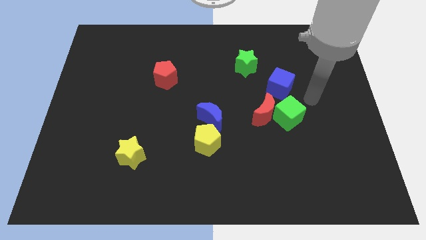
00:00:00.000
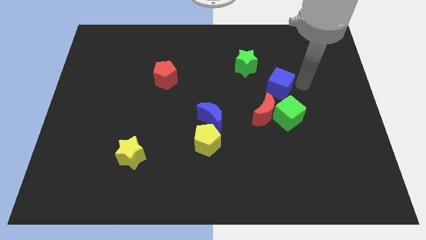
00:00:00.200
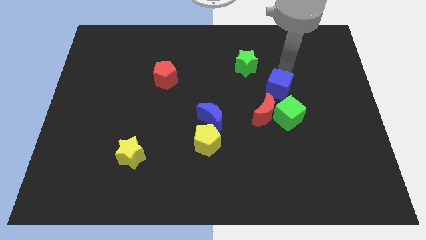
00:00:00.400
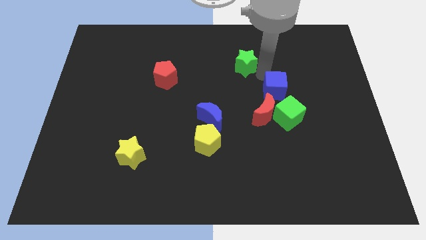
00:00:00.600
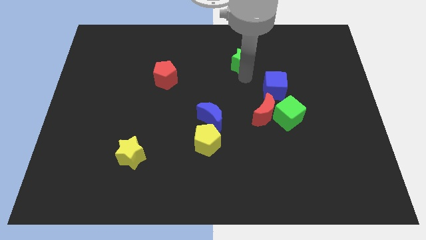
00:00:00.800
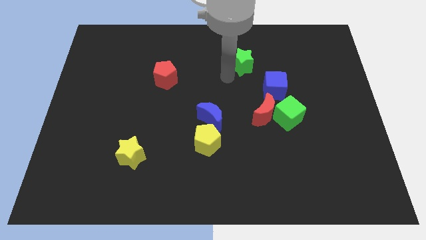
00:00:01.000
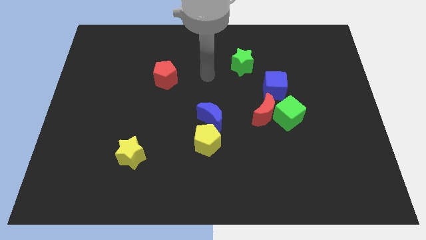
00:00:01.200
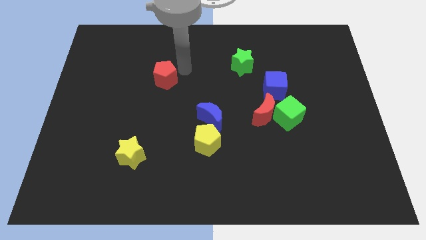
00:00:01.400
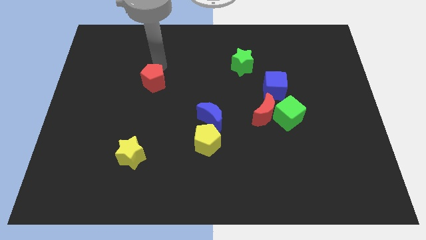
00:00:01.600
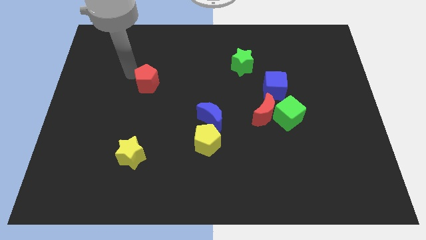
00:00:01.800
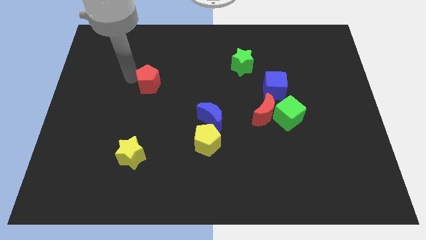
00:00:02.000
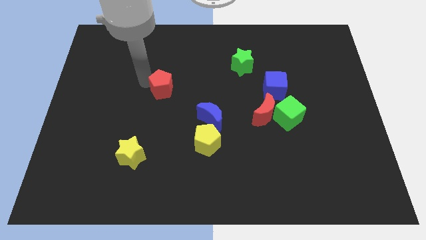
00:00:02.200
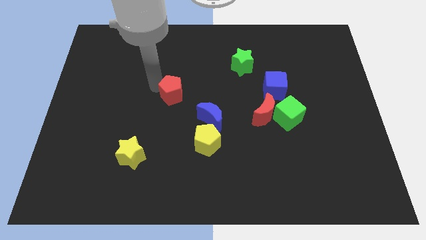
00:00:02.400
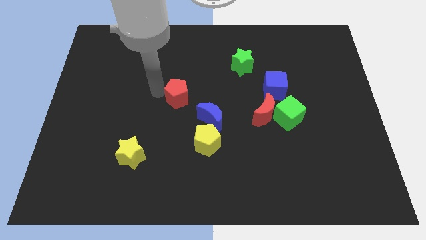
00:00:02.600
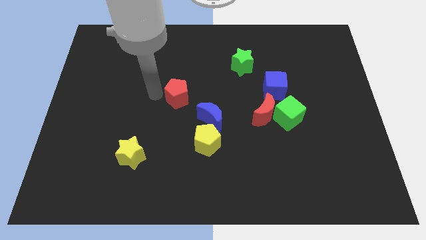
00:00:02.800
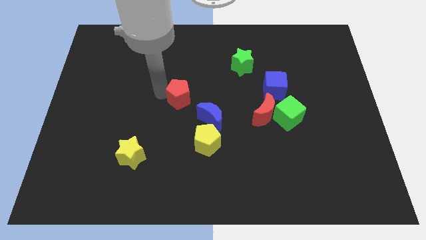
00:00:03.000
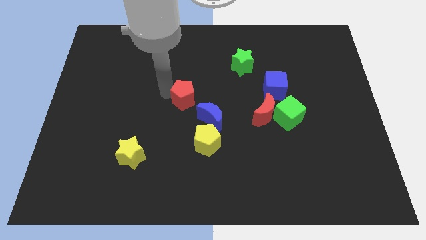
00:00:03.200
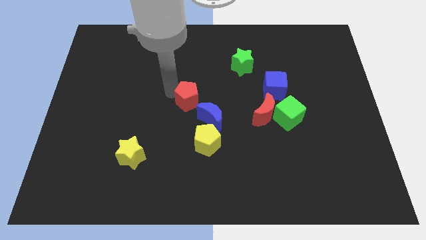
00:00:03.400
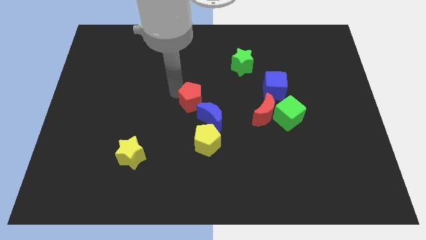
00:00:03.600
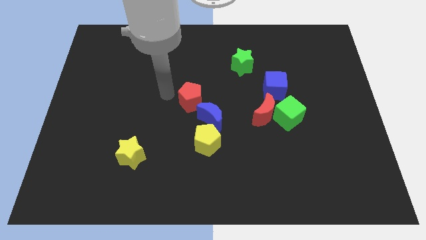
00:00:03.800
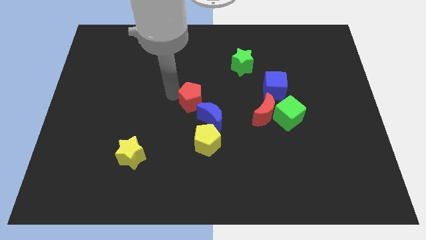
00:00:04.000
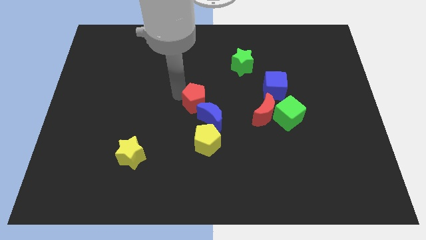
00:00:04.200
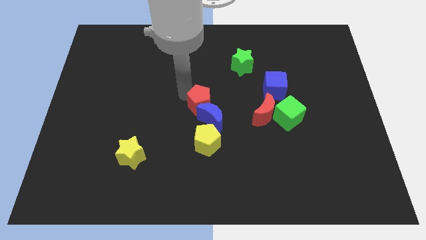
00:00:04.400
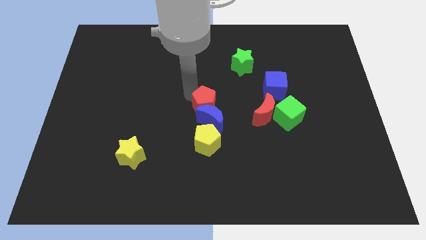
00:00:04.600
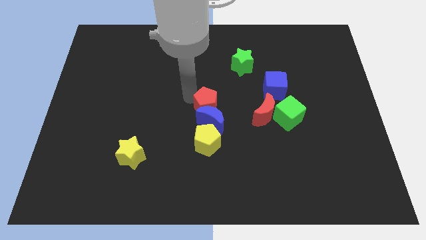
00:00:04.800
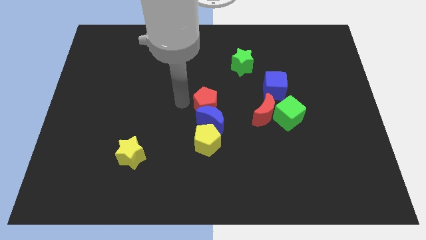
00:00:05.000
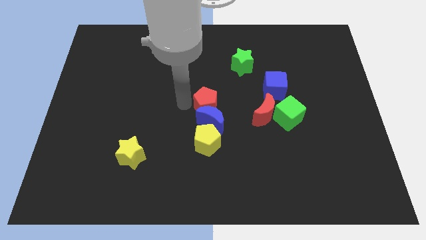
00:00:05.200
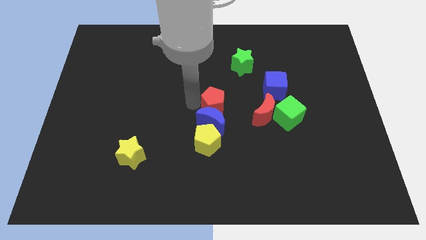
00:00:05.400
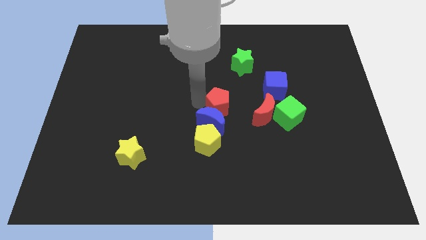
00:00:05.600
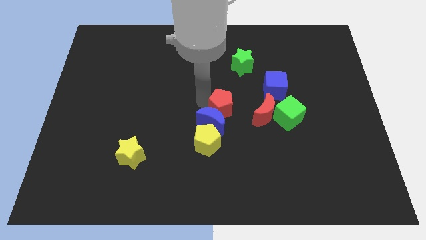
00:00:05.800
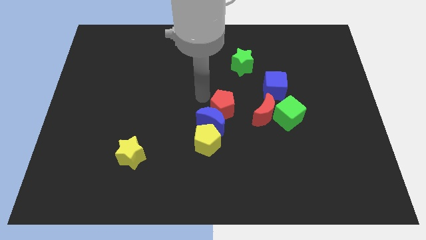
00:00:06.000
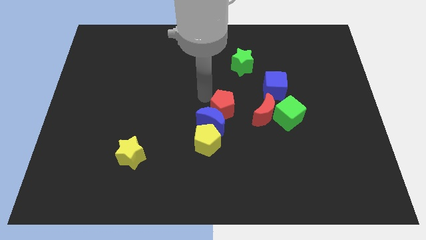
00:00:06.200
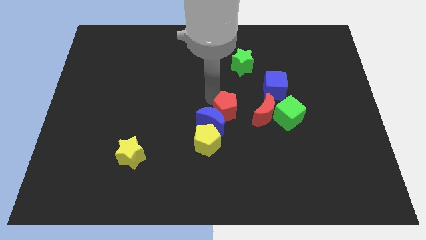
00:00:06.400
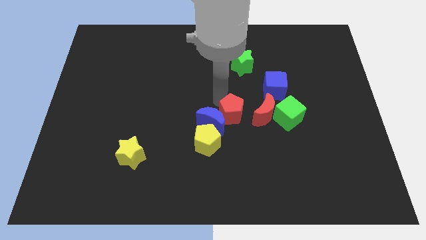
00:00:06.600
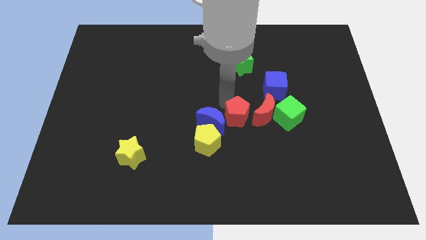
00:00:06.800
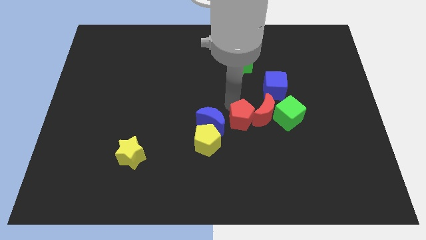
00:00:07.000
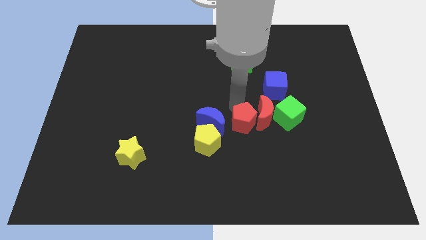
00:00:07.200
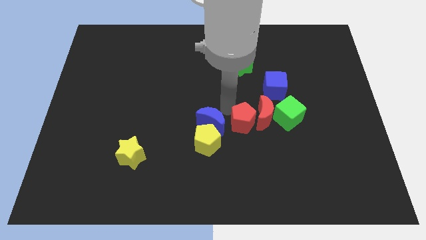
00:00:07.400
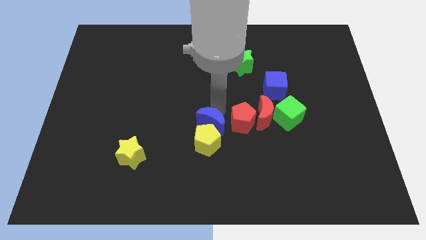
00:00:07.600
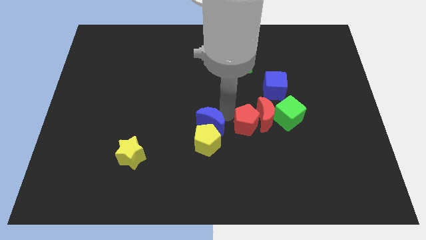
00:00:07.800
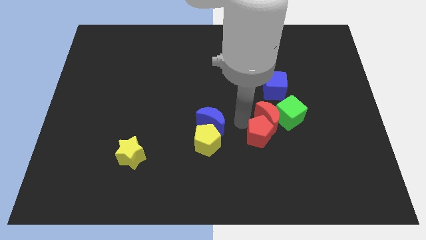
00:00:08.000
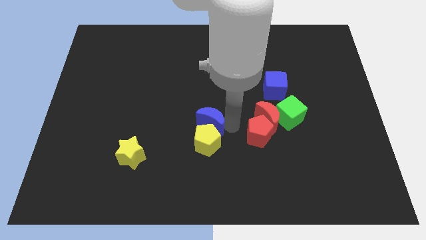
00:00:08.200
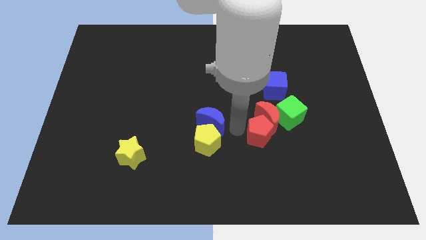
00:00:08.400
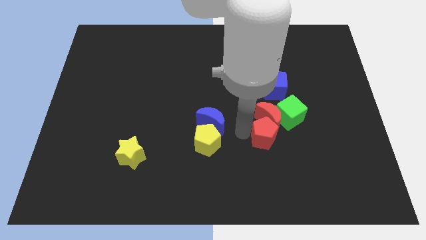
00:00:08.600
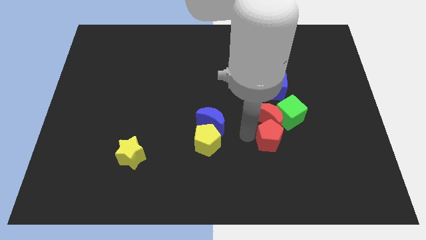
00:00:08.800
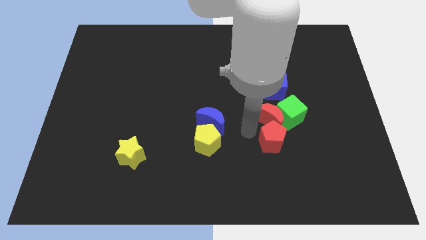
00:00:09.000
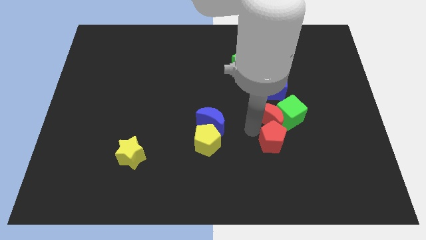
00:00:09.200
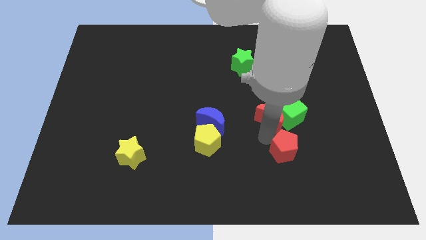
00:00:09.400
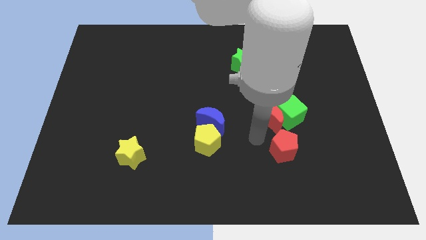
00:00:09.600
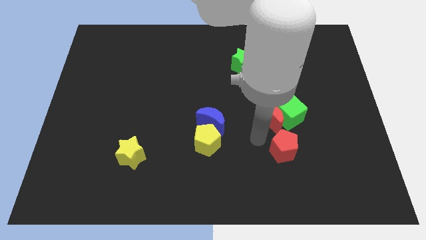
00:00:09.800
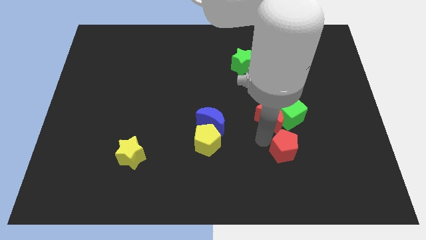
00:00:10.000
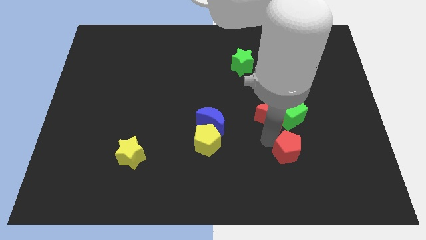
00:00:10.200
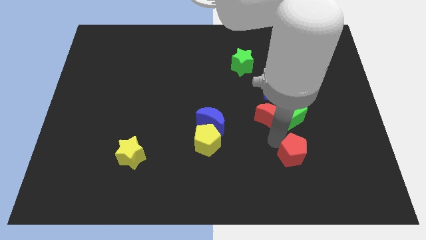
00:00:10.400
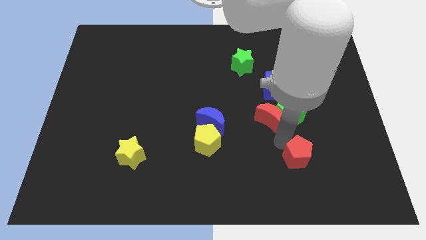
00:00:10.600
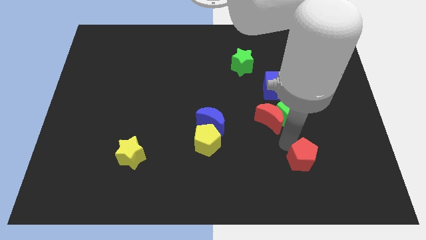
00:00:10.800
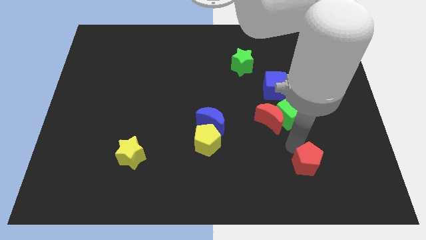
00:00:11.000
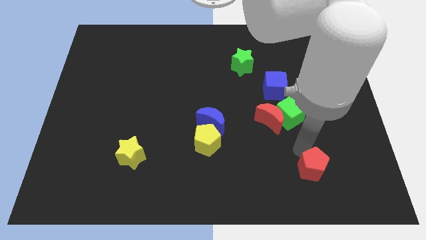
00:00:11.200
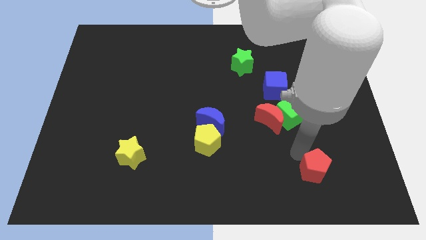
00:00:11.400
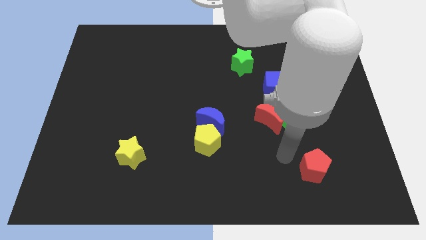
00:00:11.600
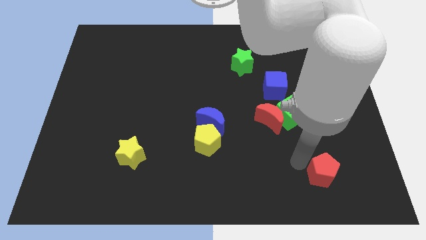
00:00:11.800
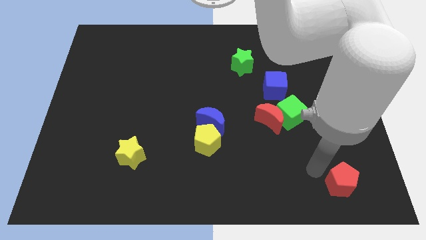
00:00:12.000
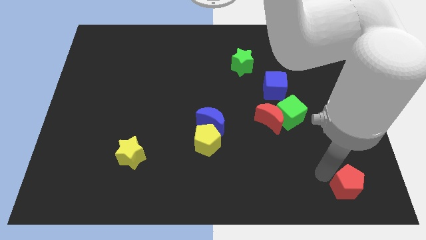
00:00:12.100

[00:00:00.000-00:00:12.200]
put the red pentagon to the bottom right
